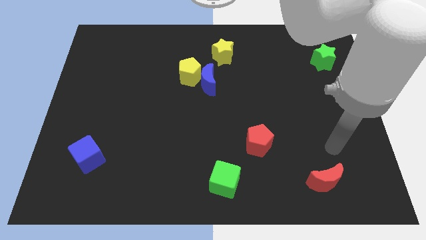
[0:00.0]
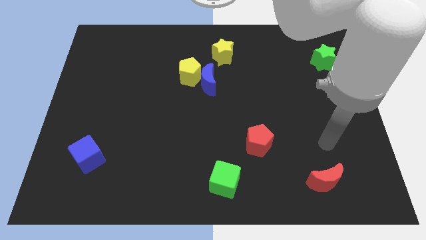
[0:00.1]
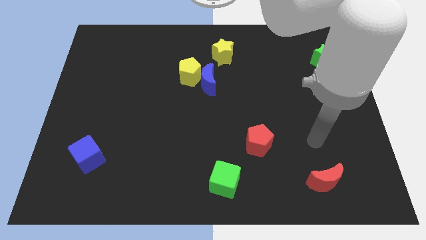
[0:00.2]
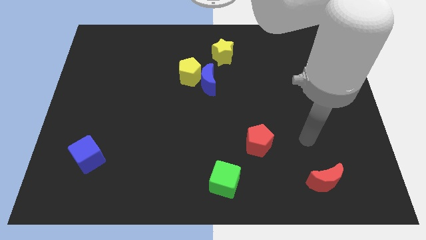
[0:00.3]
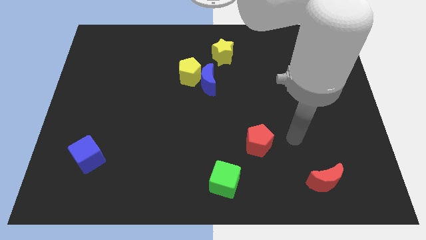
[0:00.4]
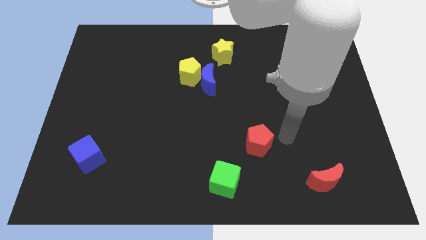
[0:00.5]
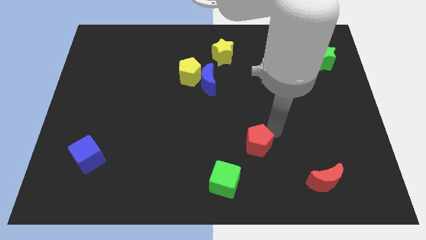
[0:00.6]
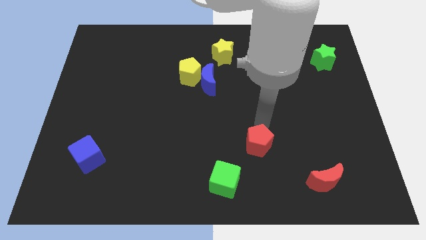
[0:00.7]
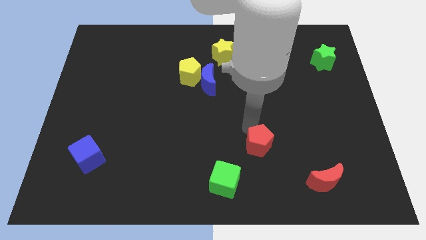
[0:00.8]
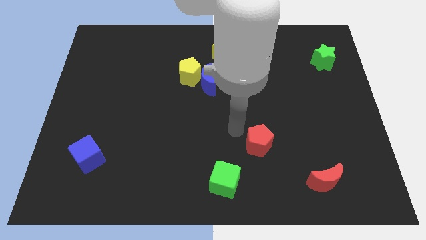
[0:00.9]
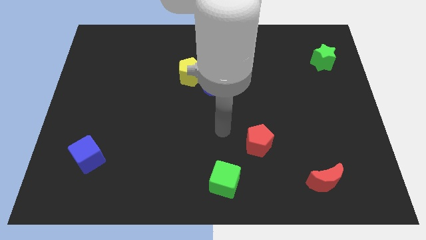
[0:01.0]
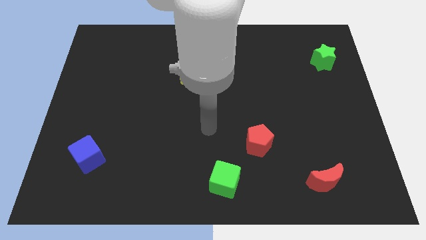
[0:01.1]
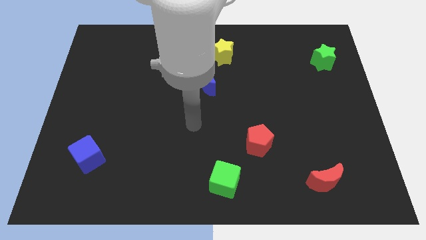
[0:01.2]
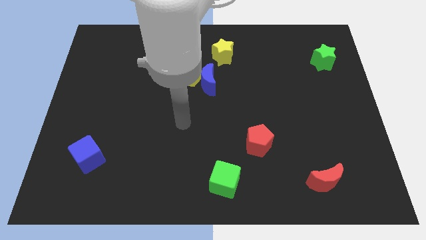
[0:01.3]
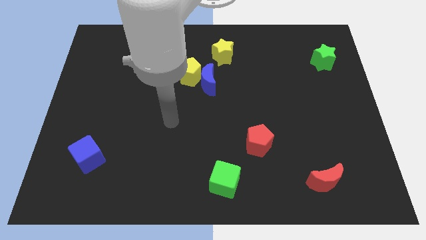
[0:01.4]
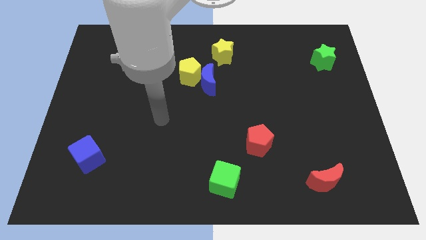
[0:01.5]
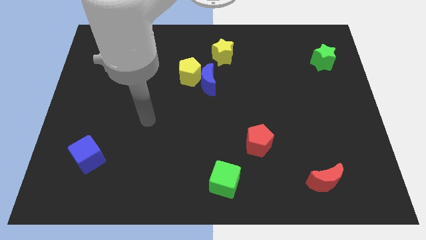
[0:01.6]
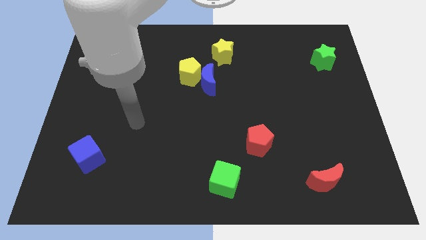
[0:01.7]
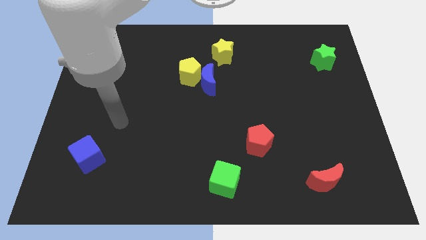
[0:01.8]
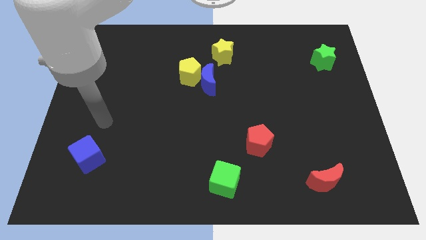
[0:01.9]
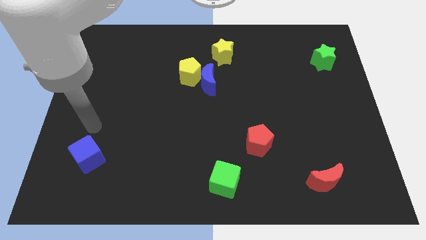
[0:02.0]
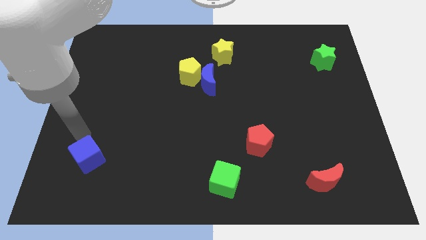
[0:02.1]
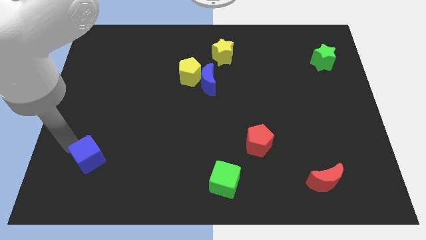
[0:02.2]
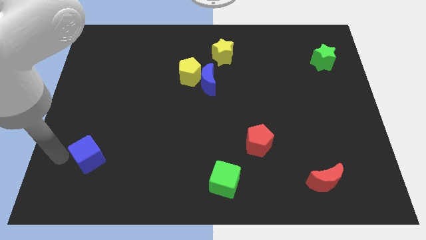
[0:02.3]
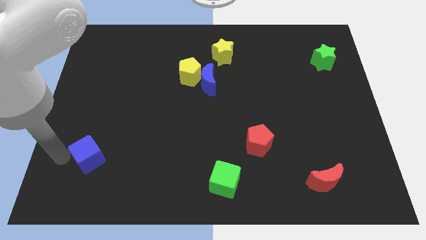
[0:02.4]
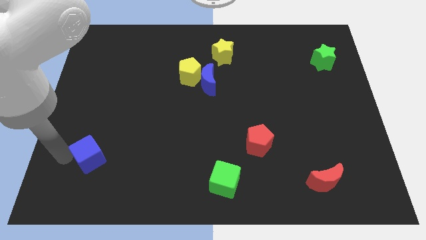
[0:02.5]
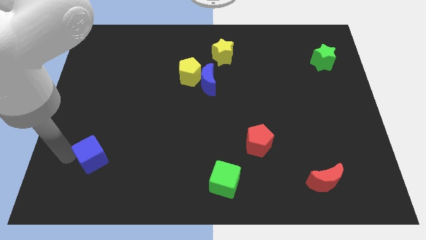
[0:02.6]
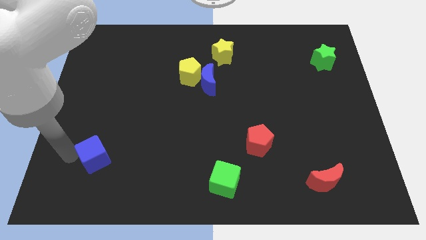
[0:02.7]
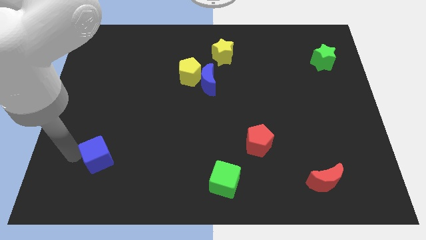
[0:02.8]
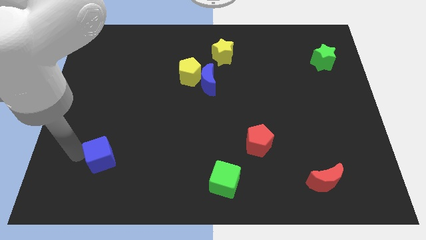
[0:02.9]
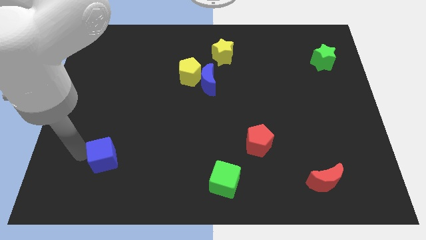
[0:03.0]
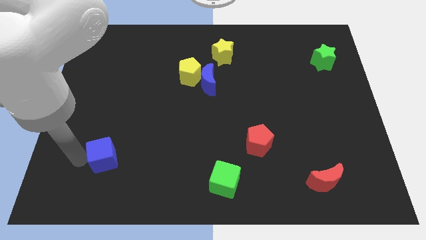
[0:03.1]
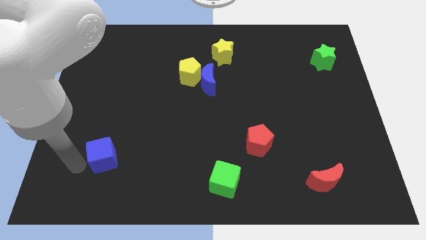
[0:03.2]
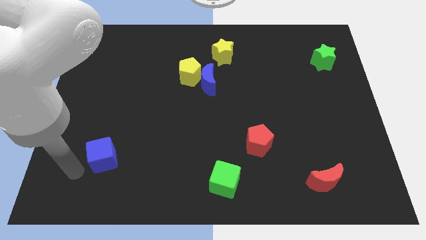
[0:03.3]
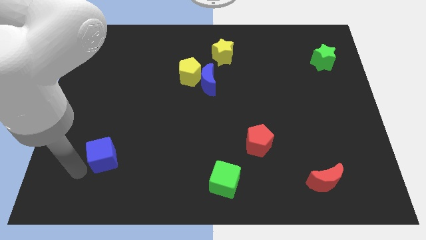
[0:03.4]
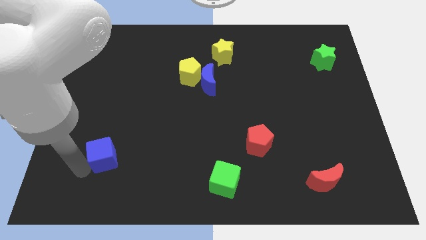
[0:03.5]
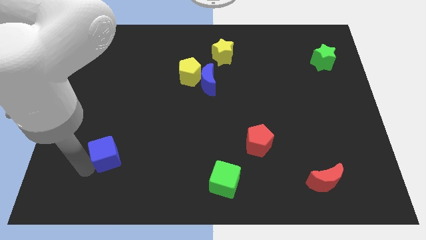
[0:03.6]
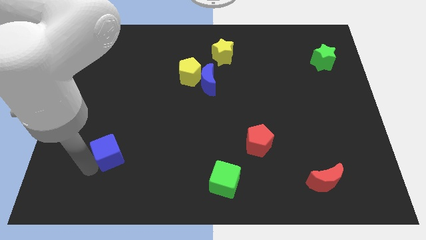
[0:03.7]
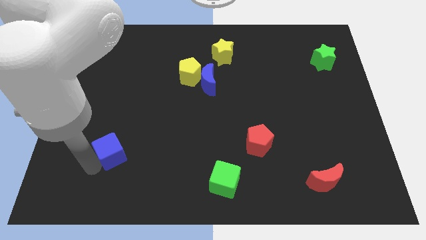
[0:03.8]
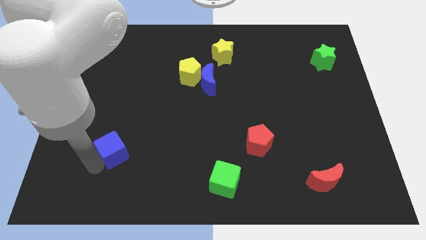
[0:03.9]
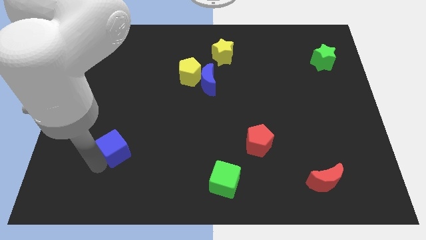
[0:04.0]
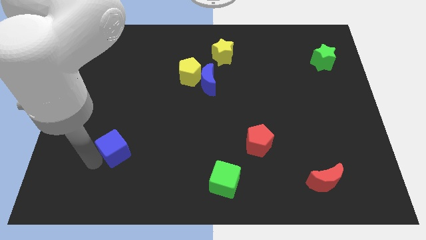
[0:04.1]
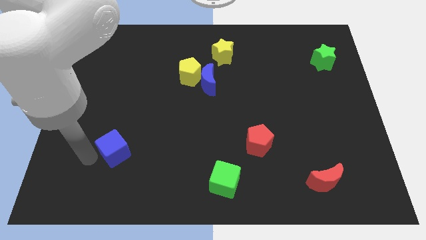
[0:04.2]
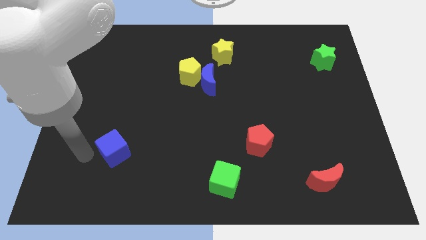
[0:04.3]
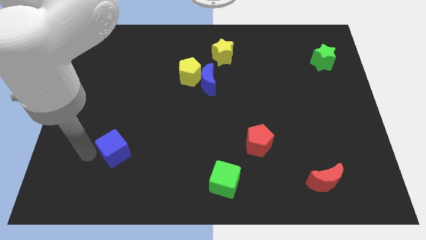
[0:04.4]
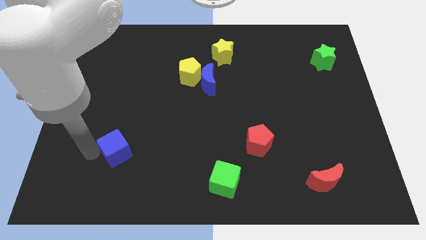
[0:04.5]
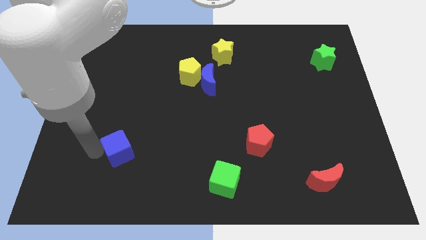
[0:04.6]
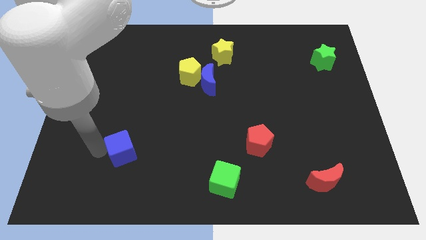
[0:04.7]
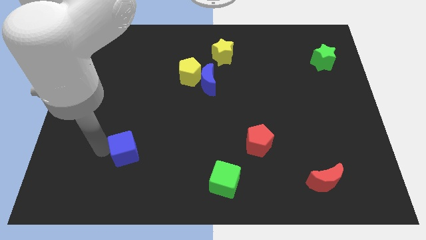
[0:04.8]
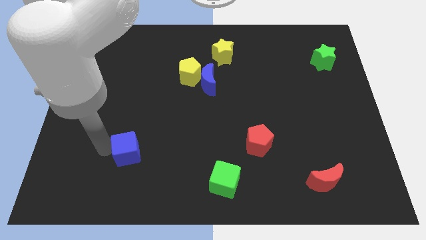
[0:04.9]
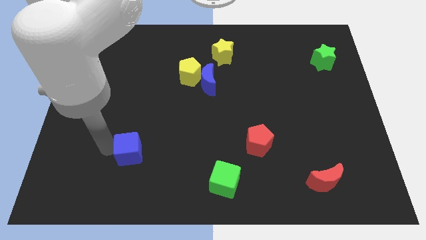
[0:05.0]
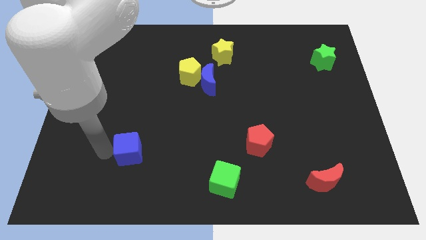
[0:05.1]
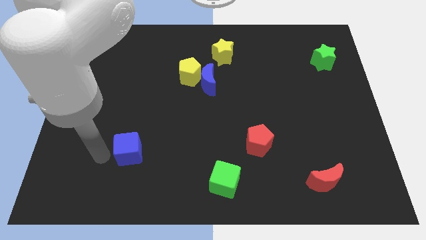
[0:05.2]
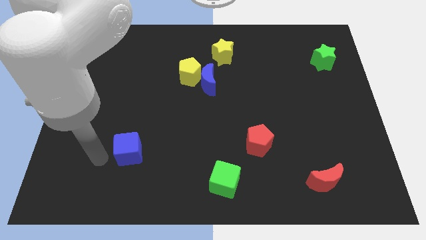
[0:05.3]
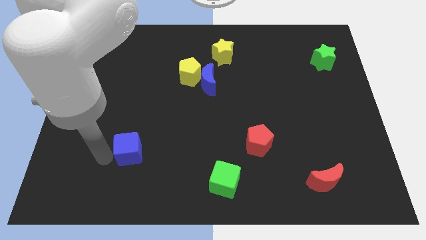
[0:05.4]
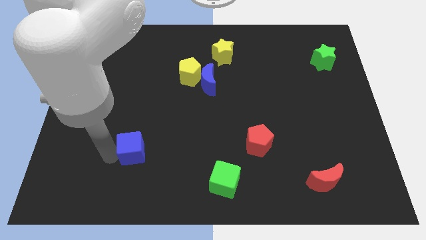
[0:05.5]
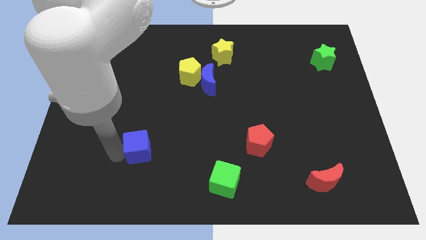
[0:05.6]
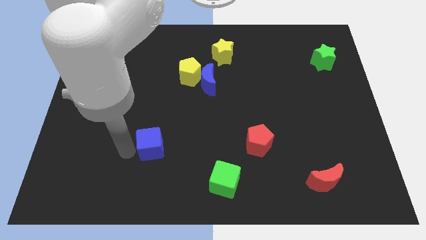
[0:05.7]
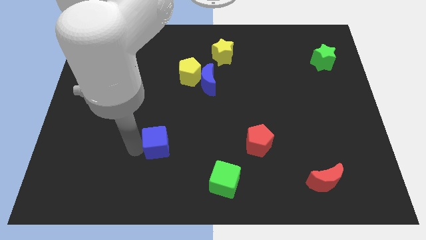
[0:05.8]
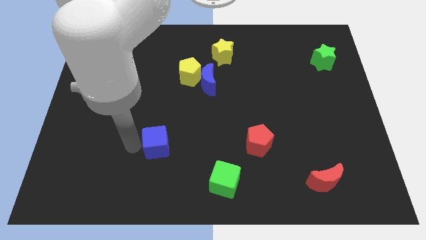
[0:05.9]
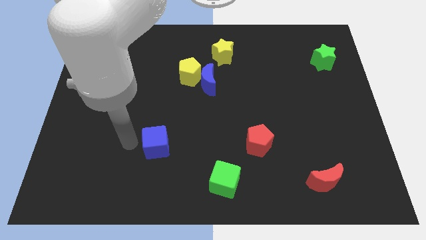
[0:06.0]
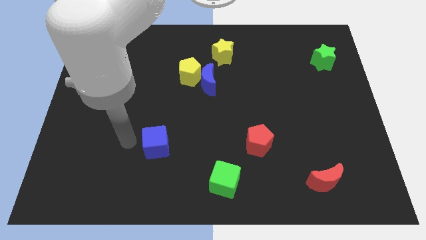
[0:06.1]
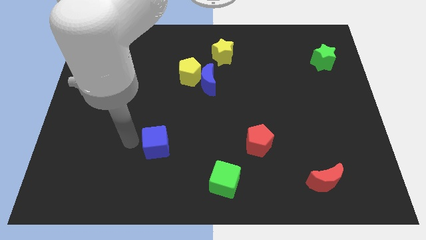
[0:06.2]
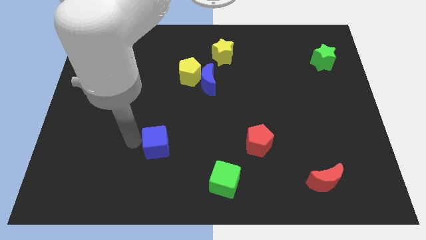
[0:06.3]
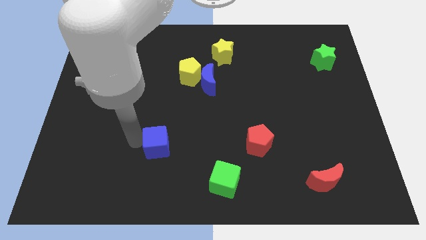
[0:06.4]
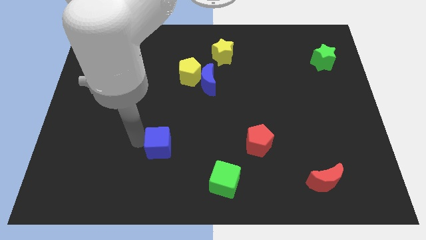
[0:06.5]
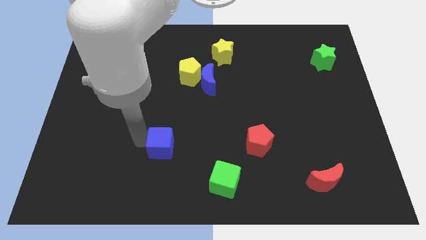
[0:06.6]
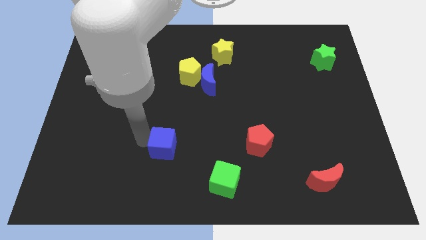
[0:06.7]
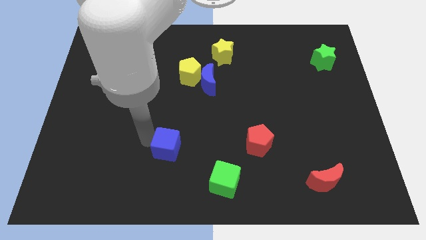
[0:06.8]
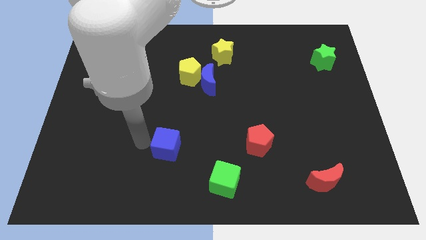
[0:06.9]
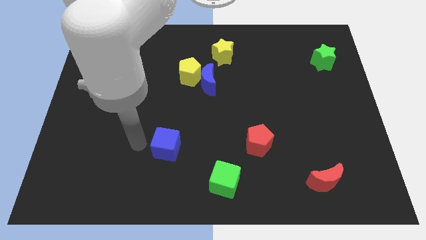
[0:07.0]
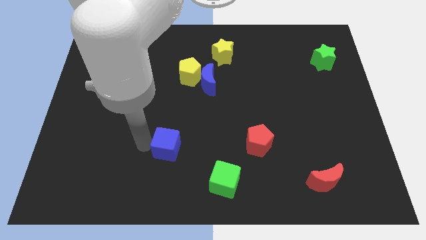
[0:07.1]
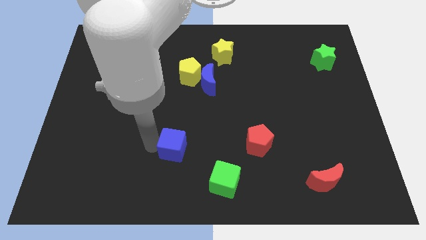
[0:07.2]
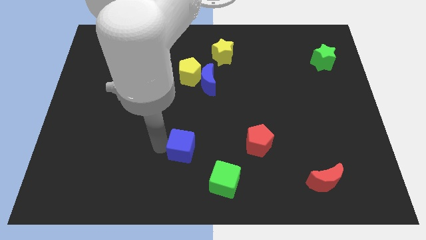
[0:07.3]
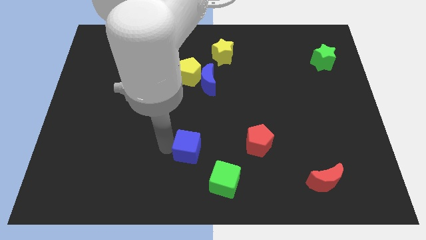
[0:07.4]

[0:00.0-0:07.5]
slide the blue cube to the right

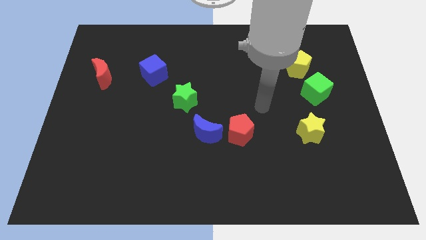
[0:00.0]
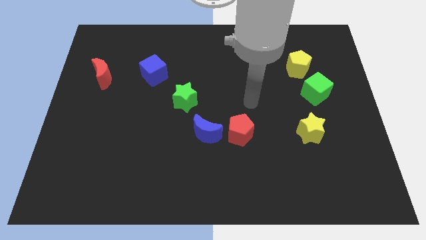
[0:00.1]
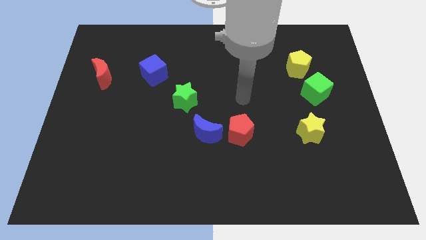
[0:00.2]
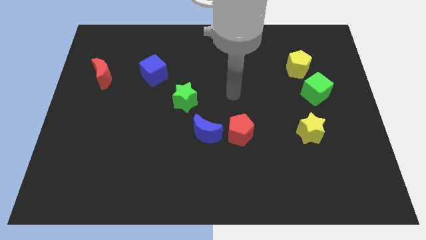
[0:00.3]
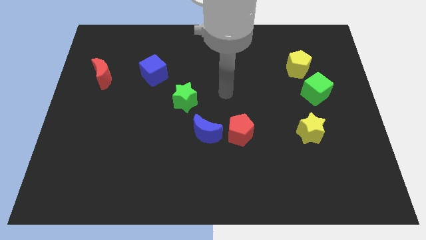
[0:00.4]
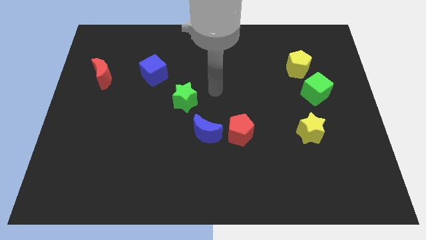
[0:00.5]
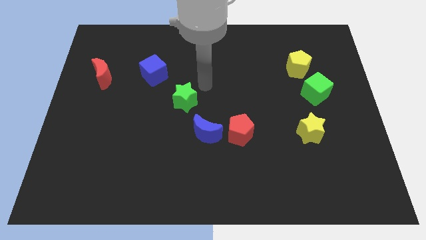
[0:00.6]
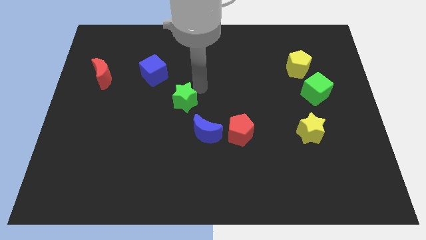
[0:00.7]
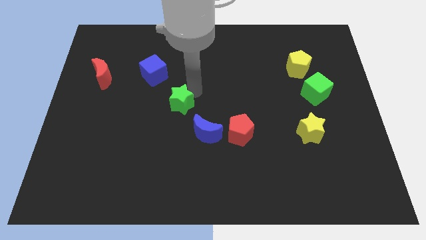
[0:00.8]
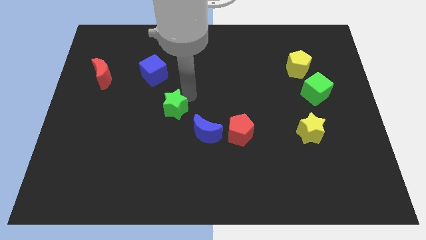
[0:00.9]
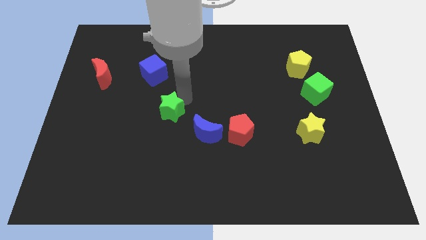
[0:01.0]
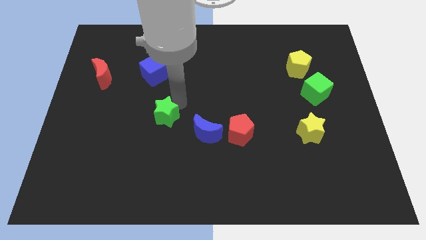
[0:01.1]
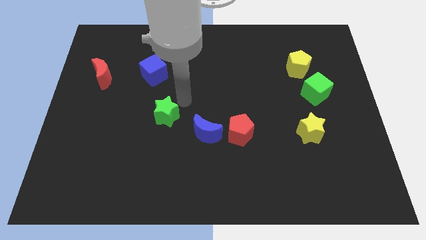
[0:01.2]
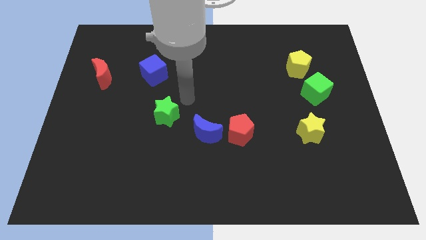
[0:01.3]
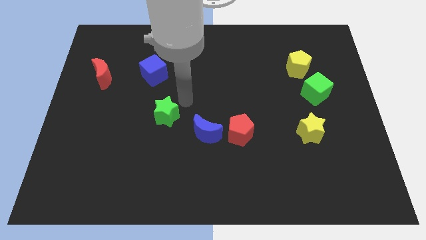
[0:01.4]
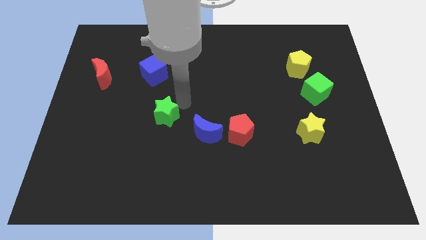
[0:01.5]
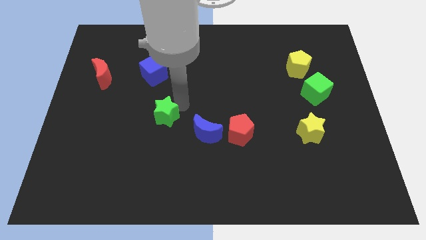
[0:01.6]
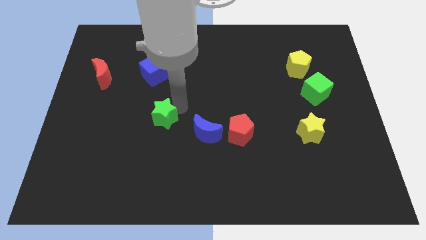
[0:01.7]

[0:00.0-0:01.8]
move the green star down and to the left diagonally somewhat
